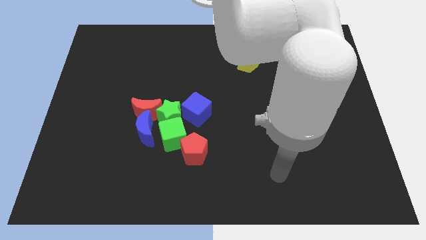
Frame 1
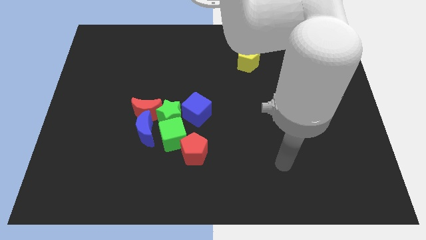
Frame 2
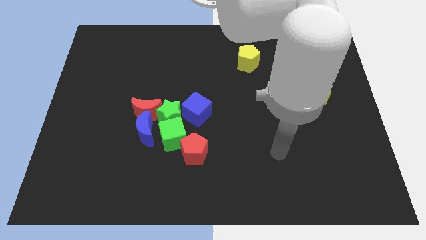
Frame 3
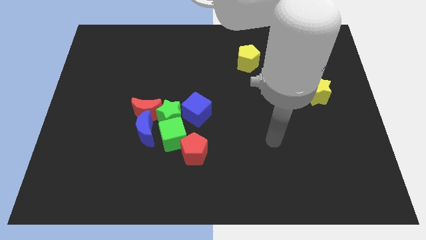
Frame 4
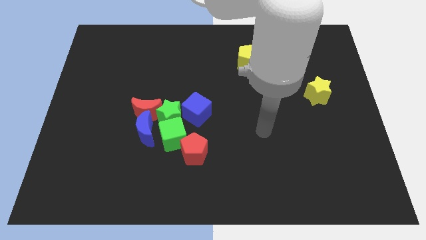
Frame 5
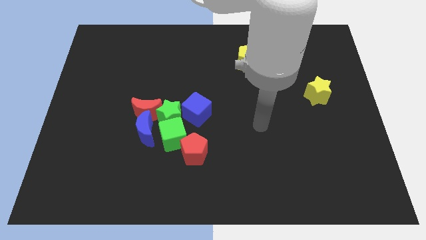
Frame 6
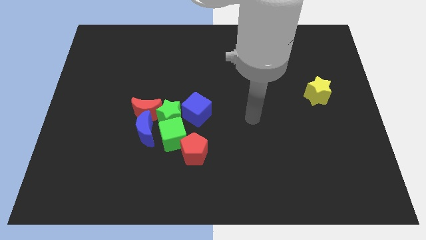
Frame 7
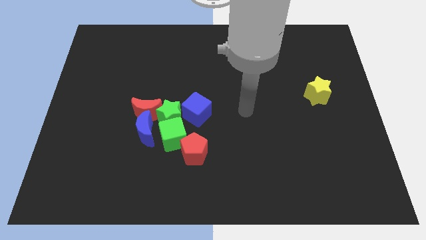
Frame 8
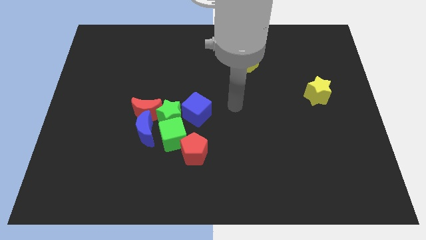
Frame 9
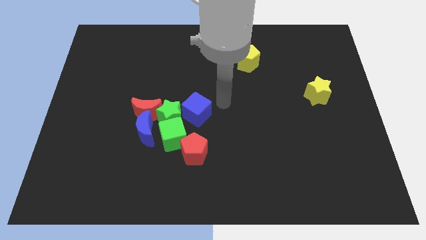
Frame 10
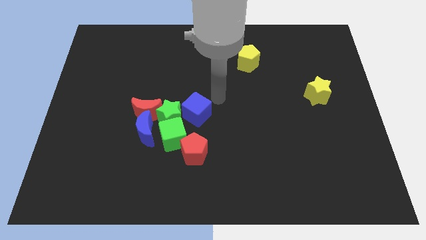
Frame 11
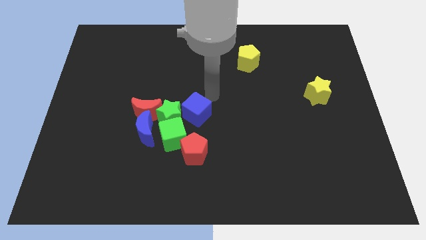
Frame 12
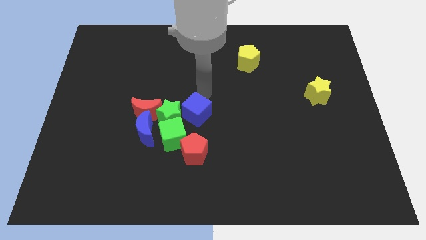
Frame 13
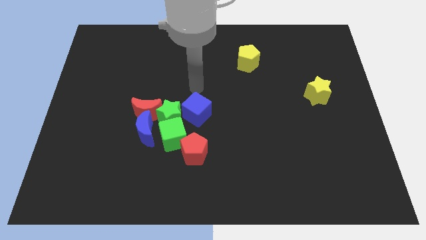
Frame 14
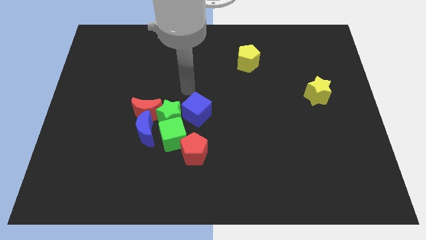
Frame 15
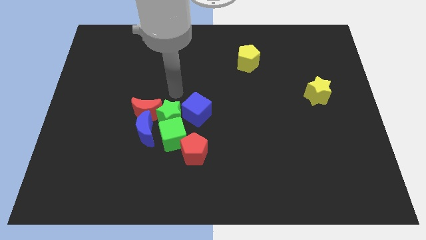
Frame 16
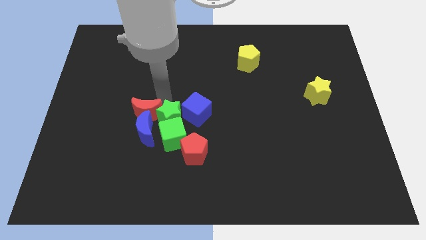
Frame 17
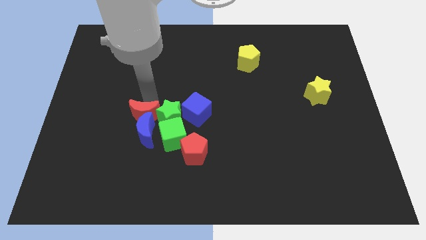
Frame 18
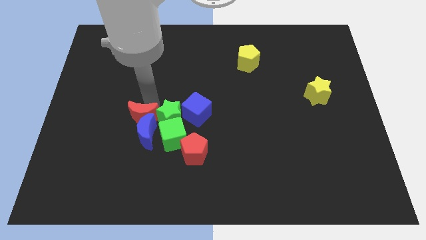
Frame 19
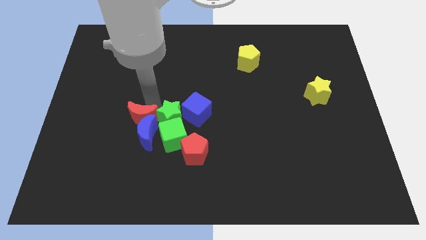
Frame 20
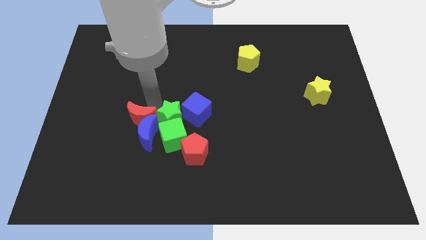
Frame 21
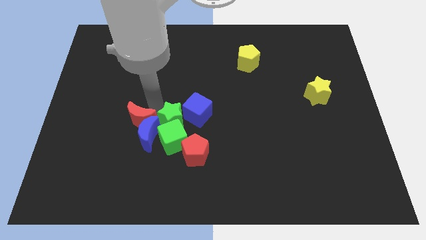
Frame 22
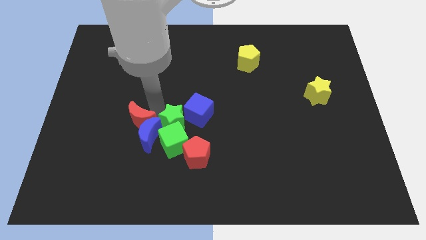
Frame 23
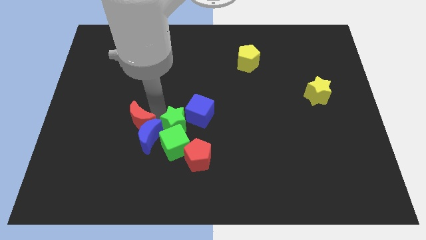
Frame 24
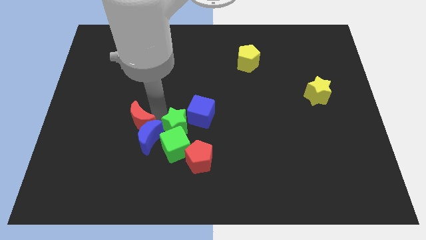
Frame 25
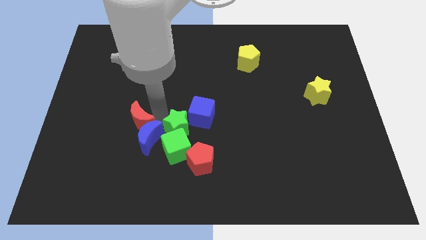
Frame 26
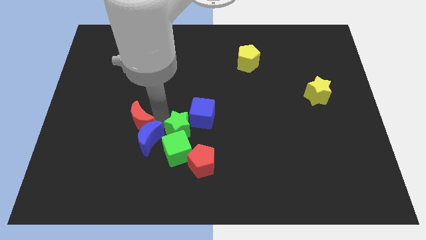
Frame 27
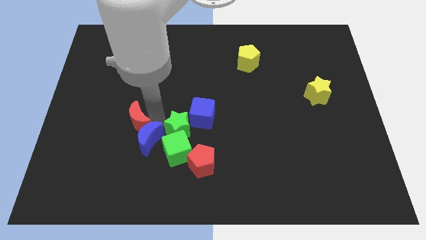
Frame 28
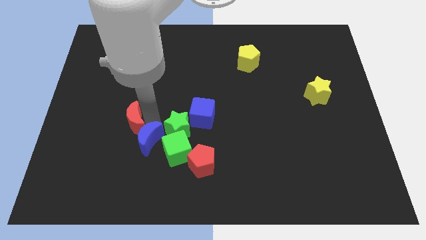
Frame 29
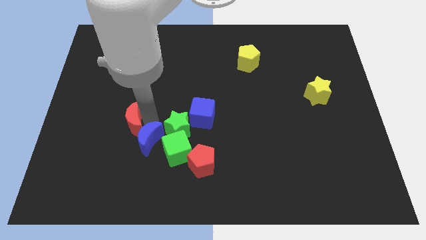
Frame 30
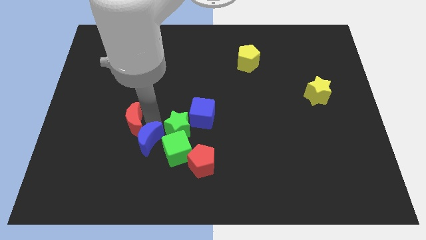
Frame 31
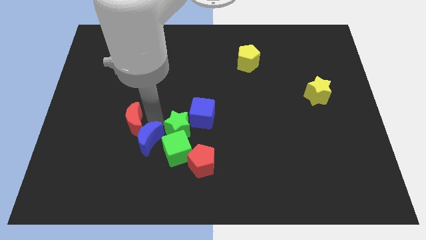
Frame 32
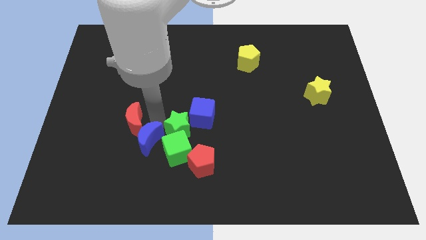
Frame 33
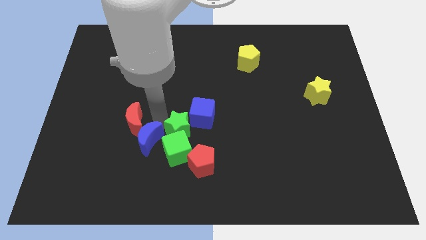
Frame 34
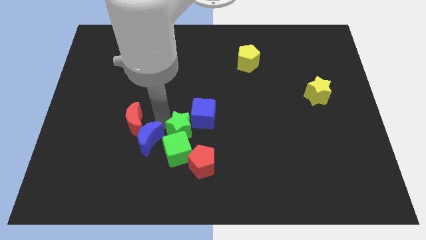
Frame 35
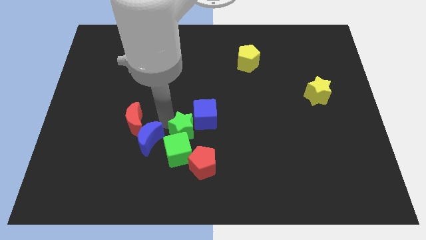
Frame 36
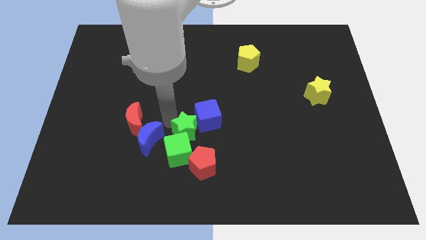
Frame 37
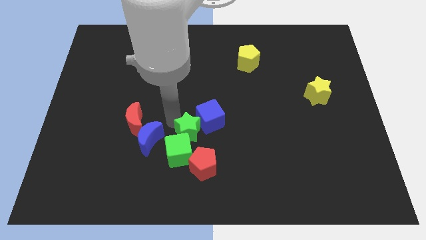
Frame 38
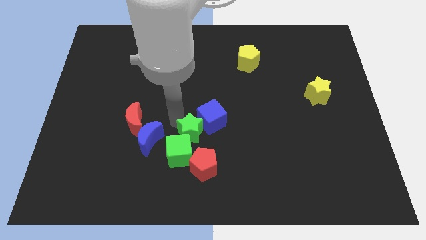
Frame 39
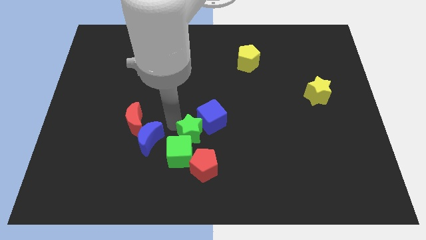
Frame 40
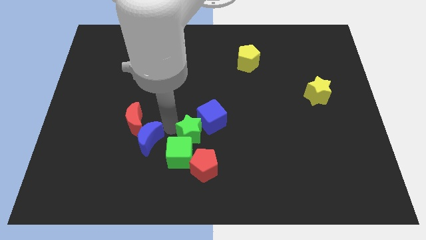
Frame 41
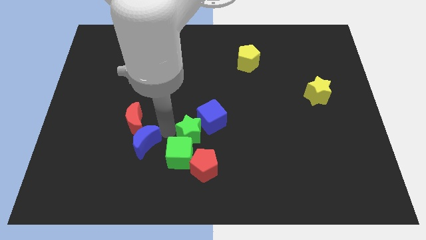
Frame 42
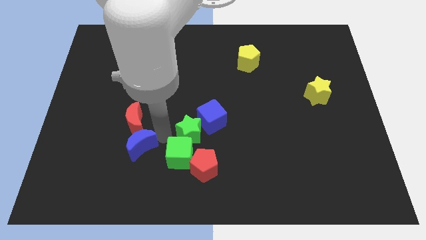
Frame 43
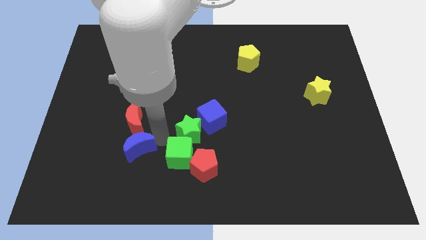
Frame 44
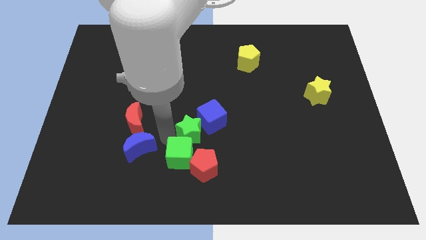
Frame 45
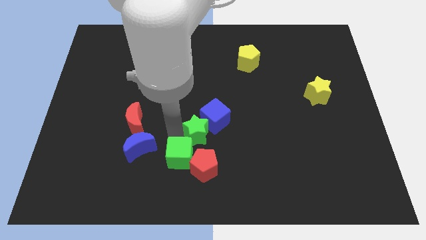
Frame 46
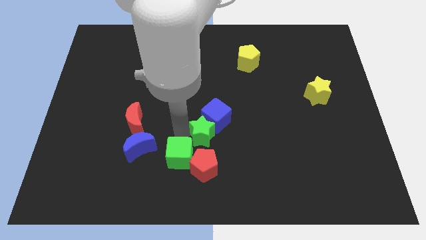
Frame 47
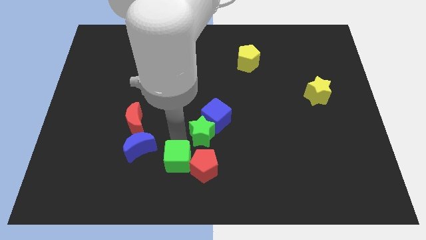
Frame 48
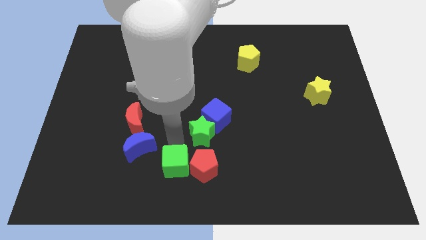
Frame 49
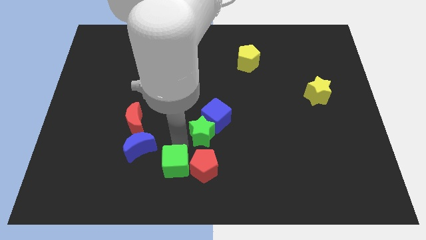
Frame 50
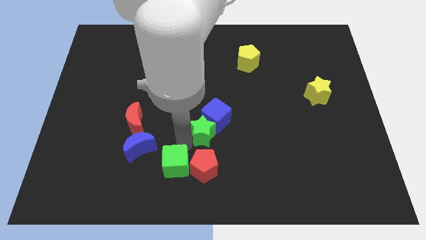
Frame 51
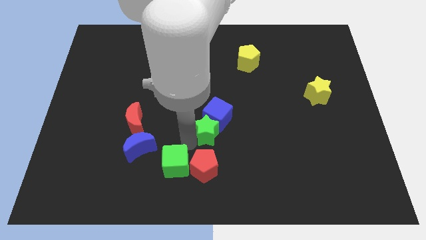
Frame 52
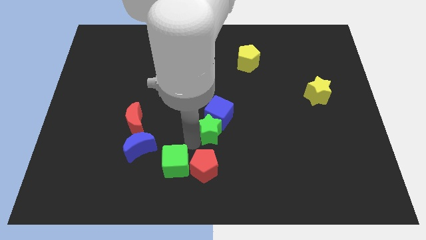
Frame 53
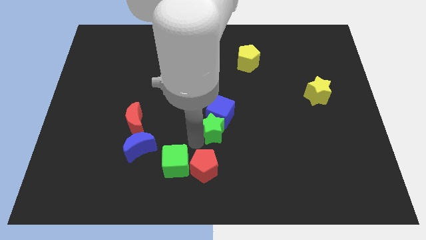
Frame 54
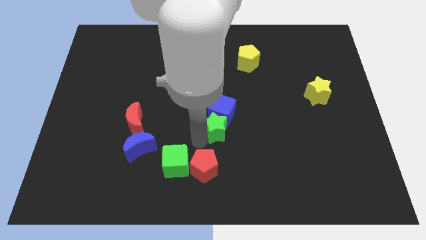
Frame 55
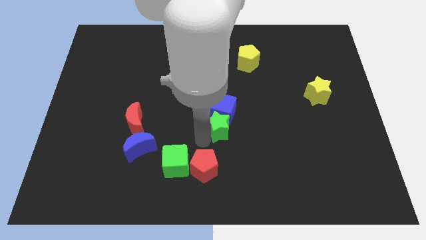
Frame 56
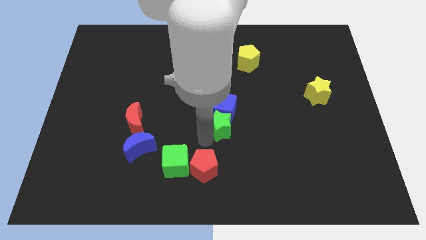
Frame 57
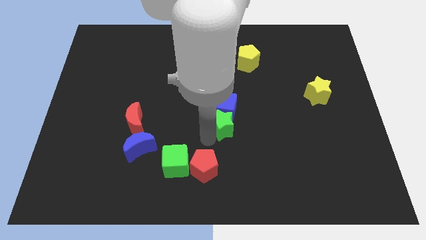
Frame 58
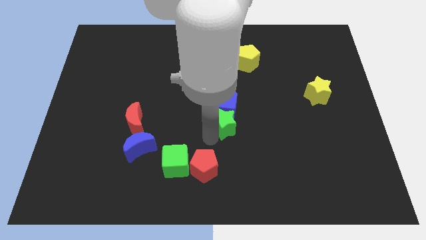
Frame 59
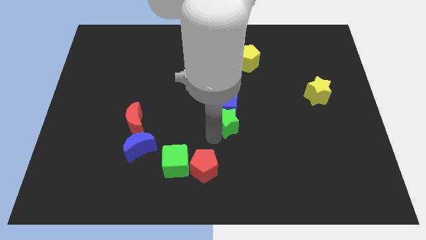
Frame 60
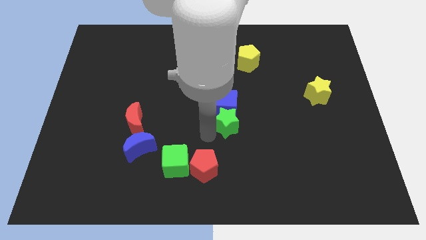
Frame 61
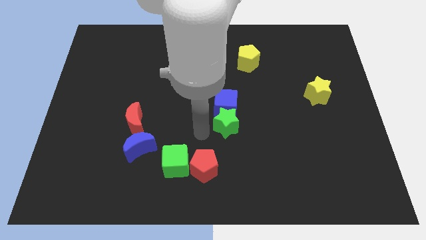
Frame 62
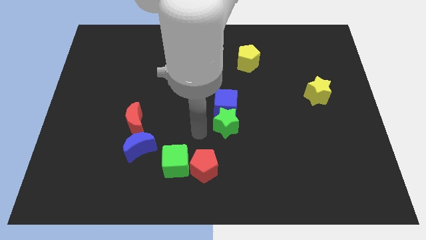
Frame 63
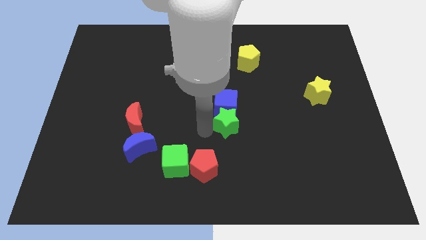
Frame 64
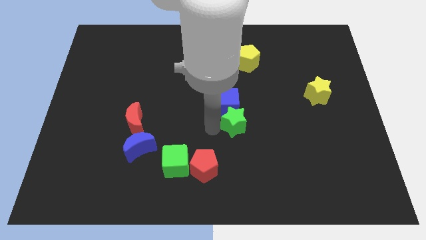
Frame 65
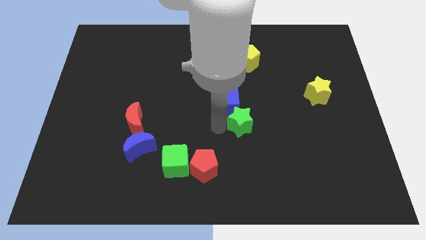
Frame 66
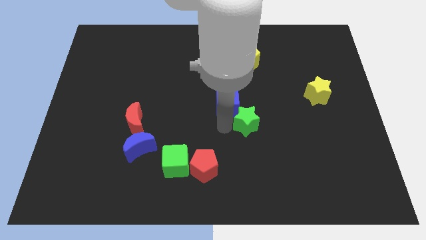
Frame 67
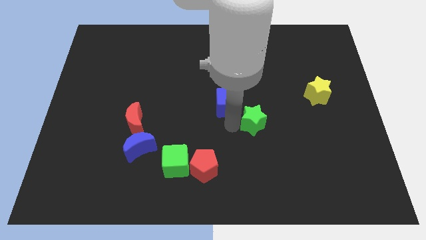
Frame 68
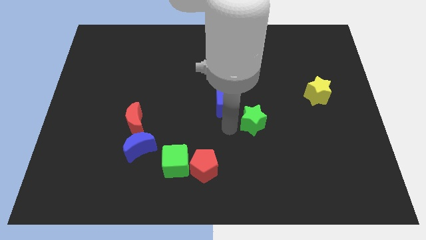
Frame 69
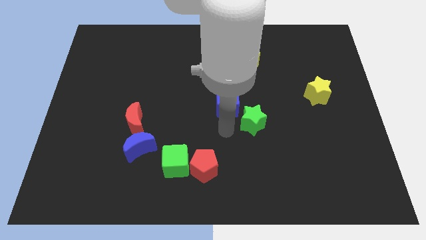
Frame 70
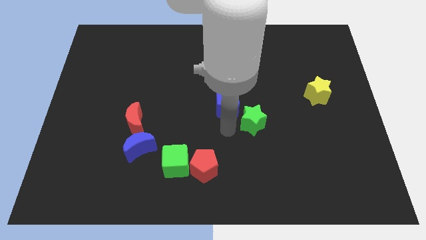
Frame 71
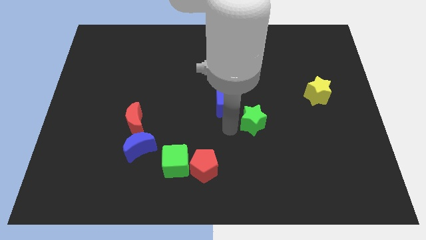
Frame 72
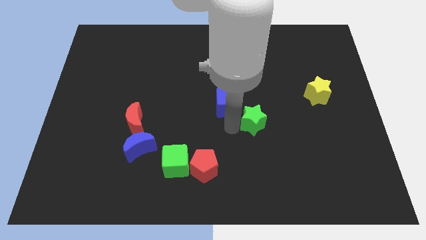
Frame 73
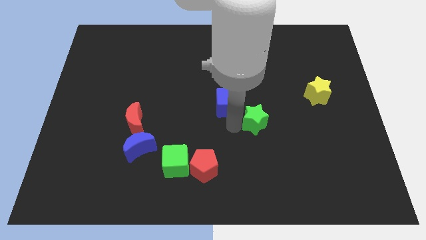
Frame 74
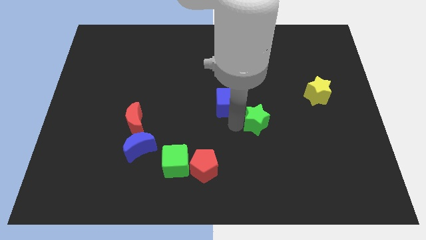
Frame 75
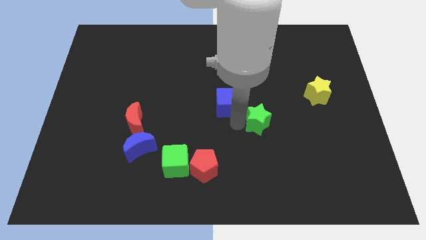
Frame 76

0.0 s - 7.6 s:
push the green star to the right
